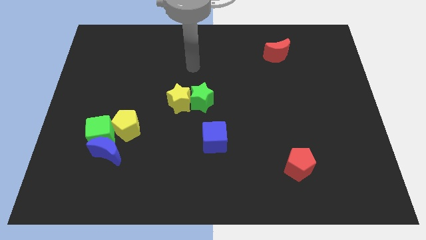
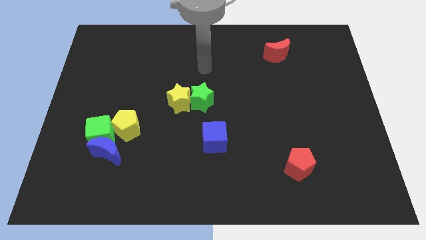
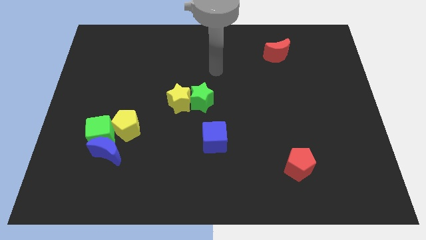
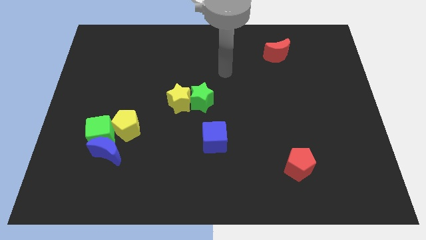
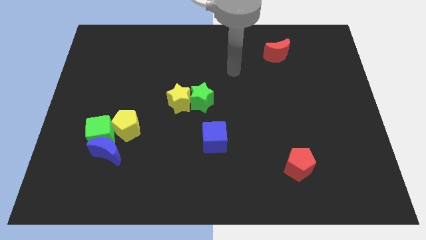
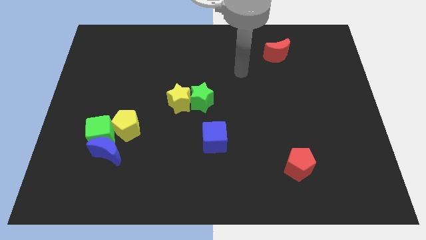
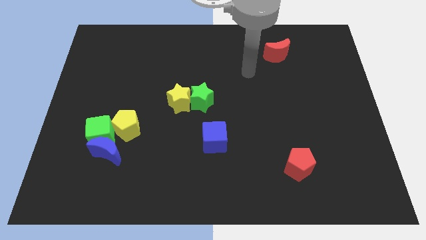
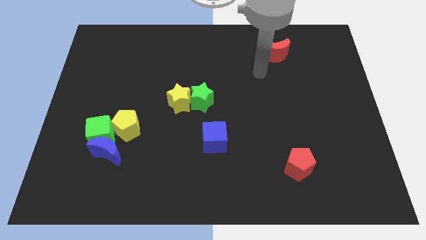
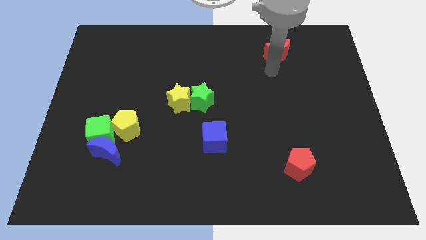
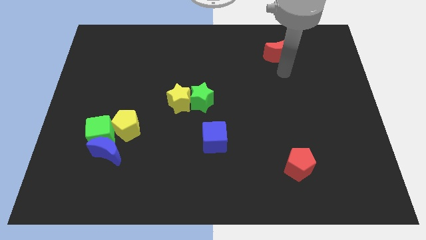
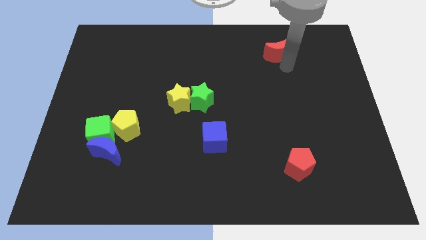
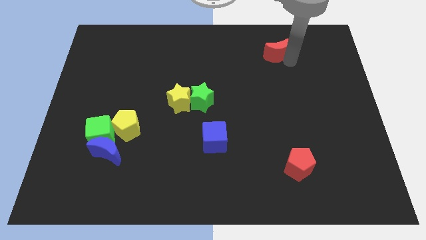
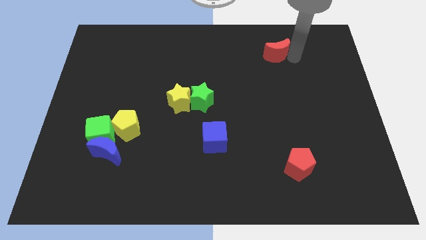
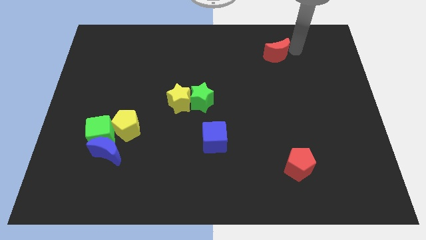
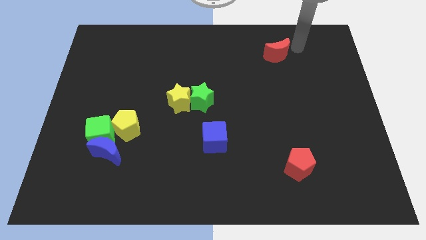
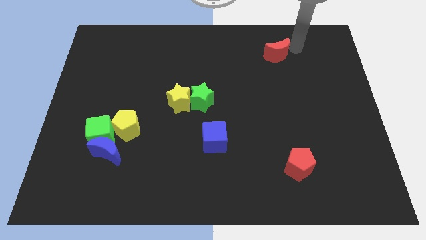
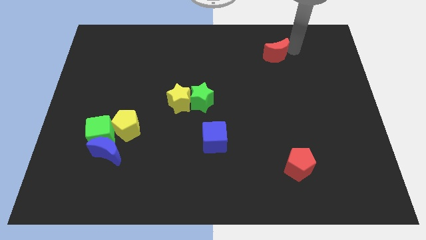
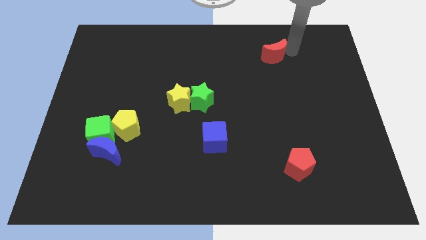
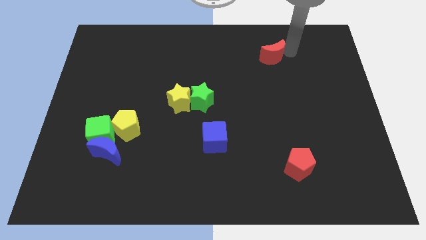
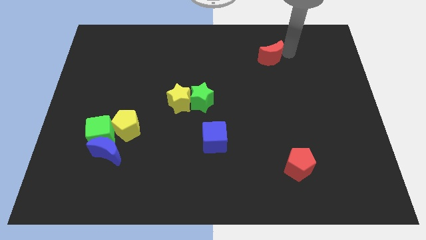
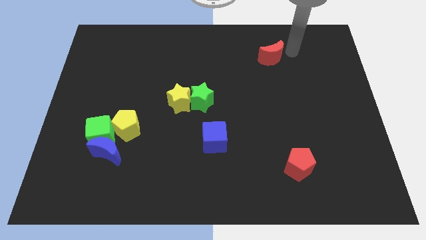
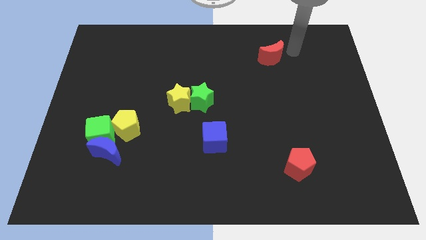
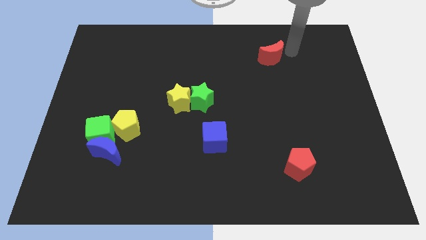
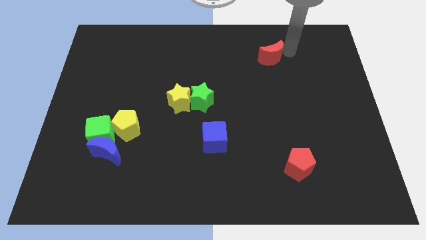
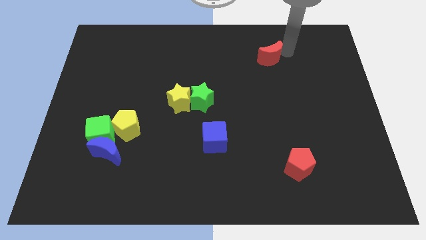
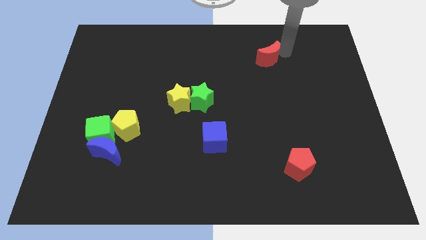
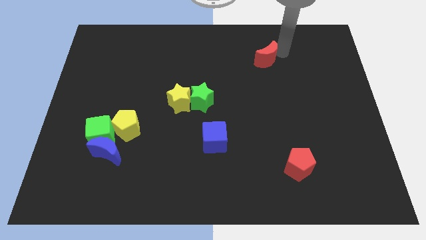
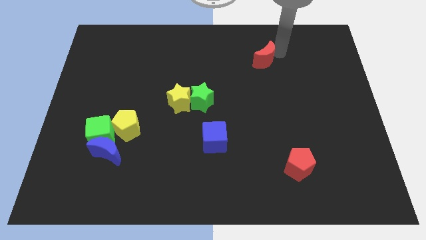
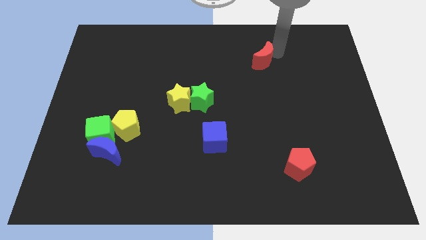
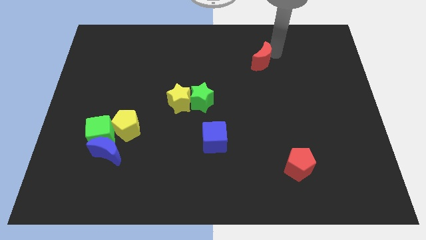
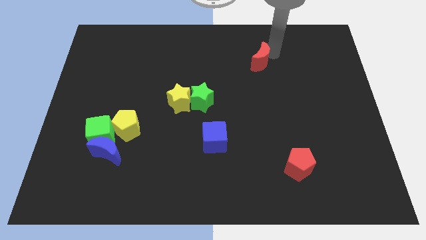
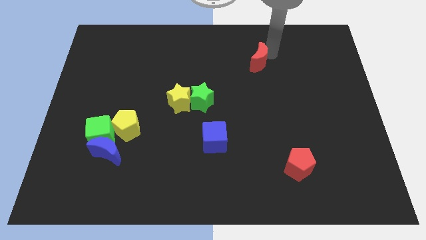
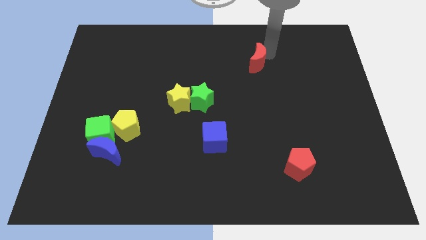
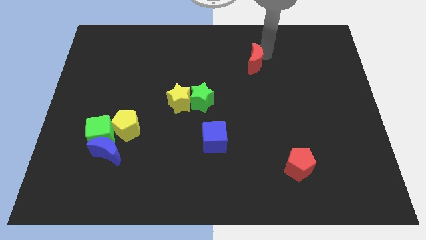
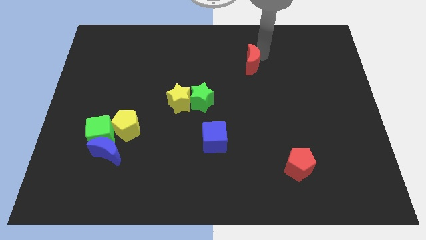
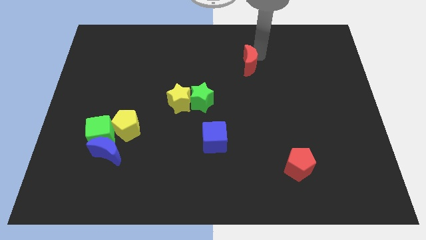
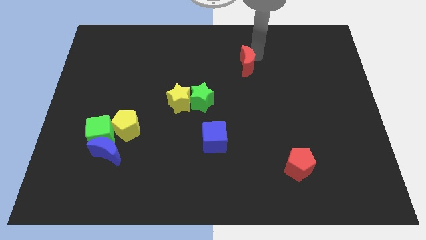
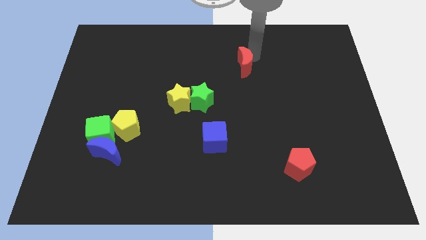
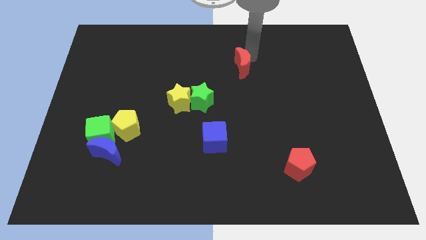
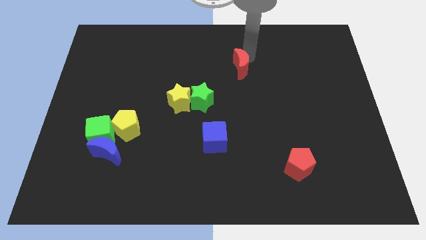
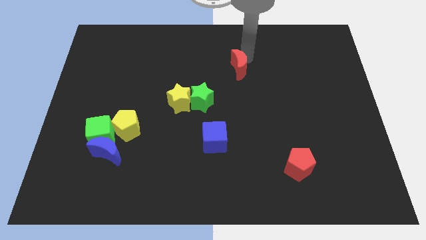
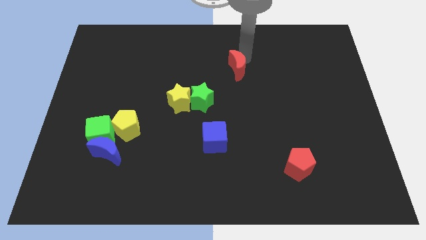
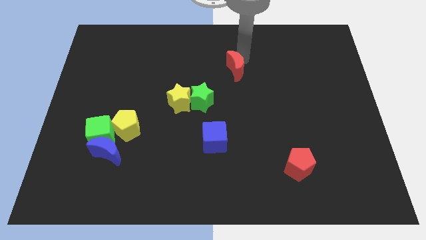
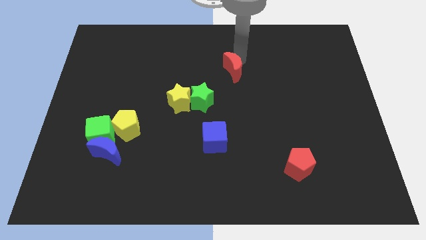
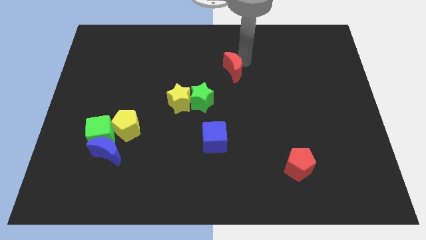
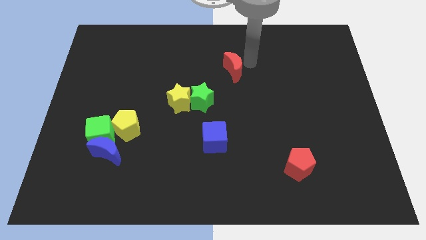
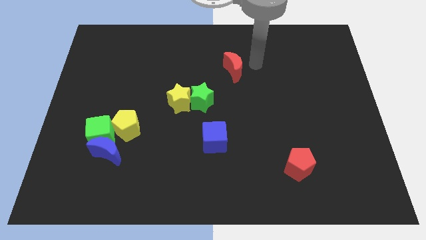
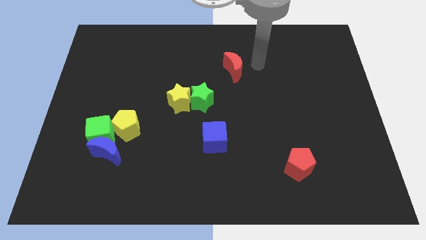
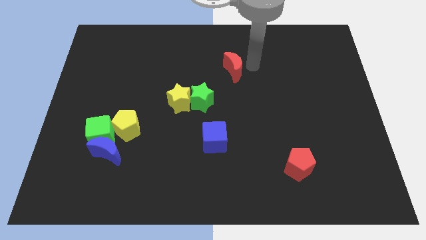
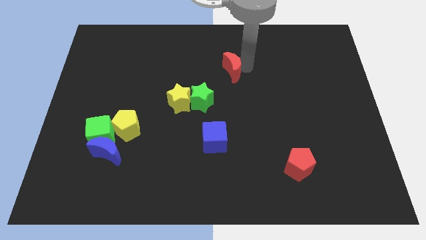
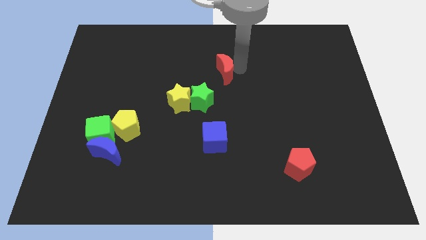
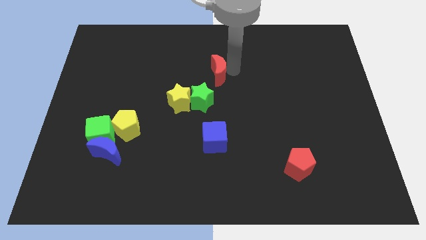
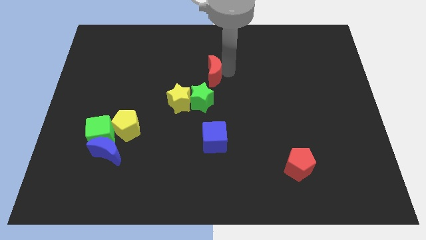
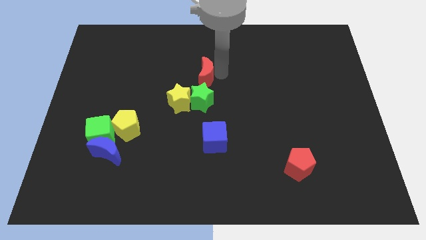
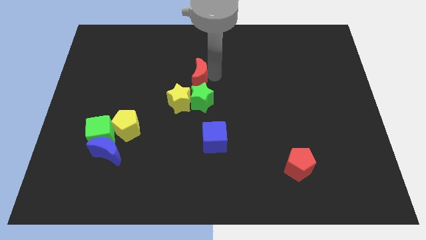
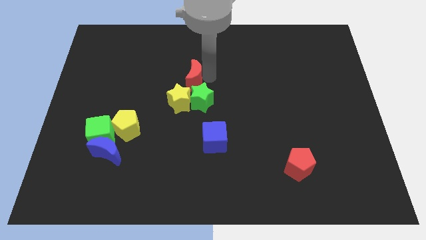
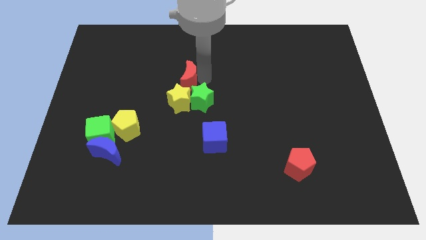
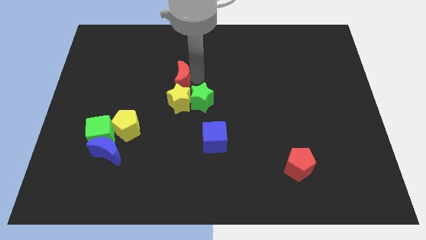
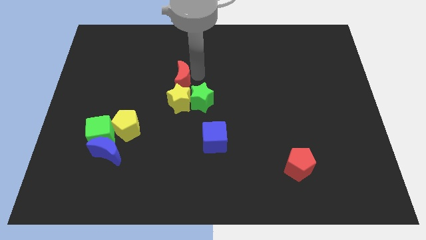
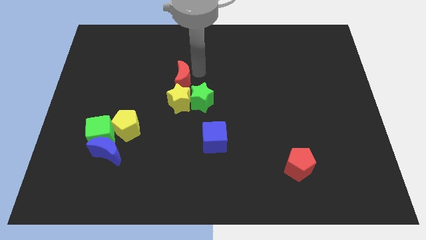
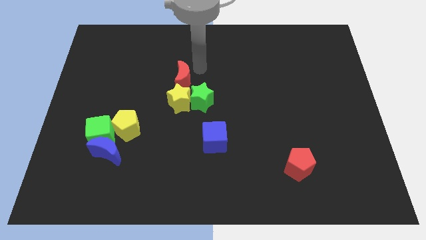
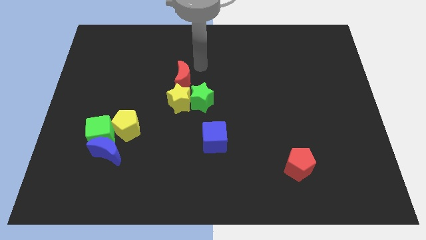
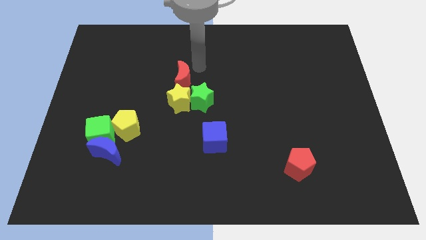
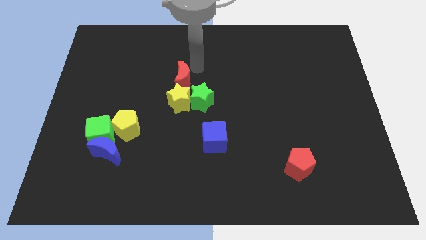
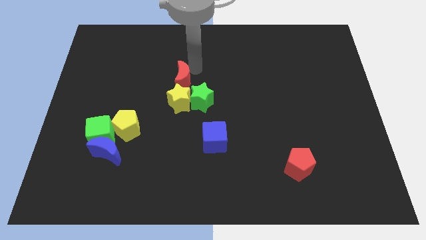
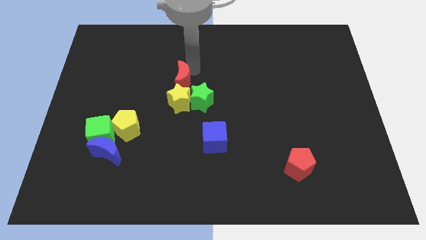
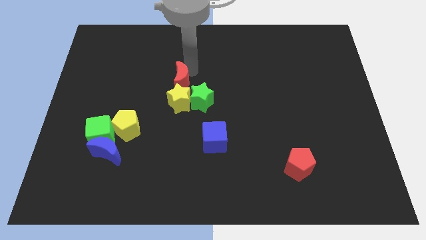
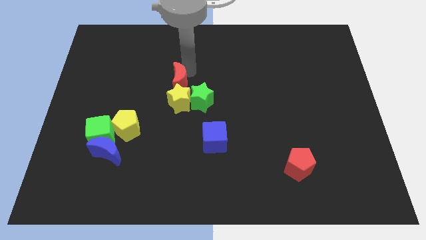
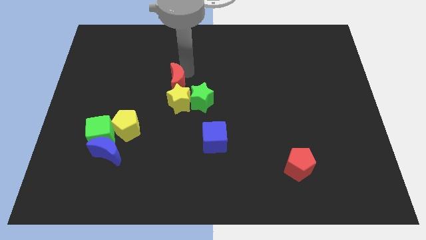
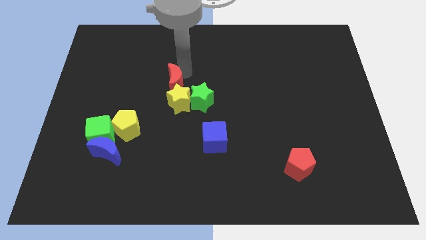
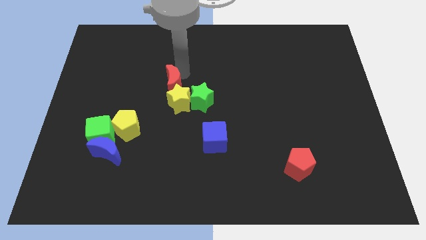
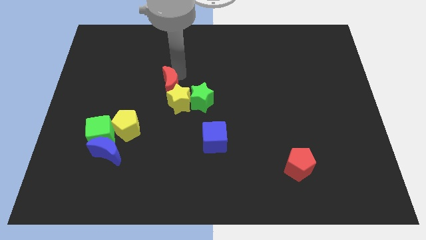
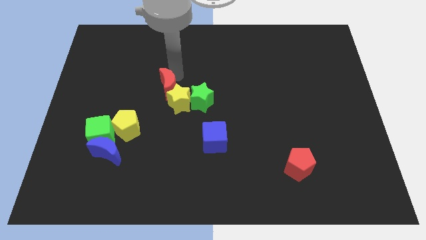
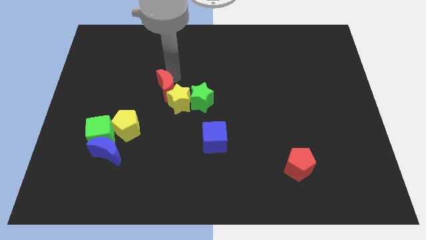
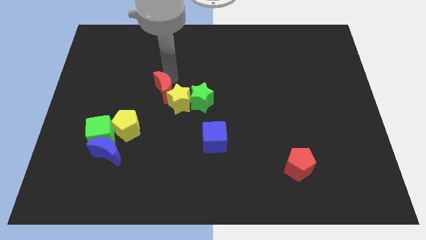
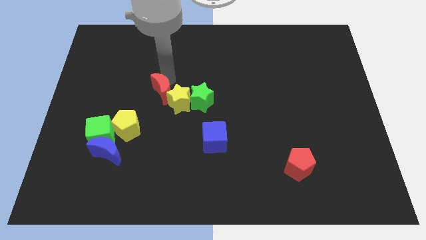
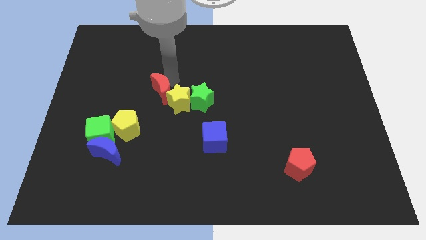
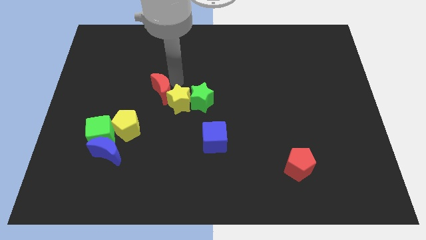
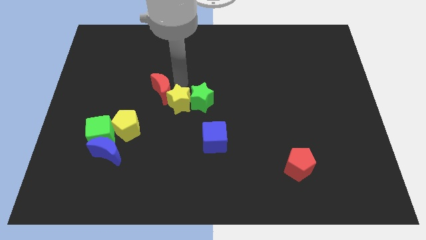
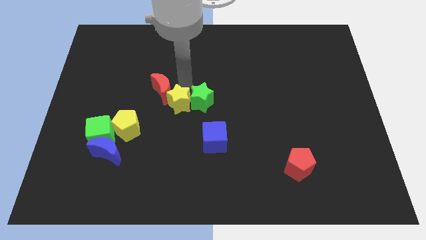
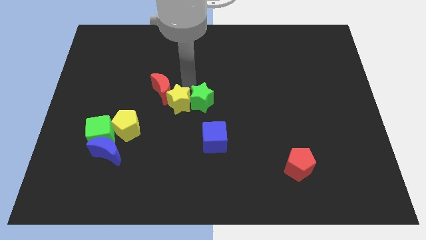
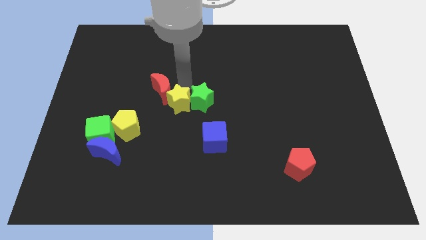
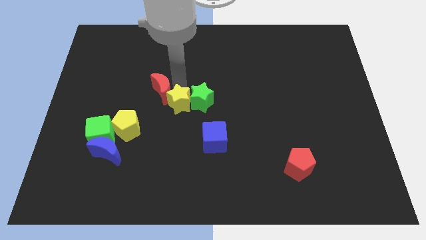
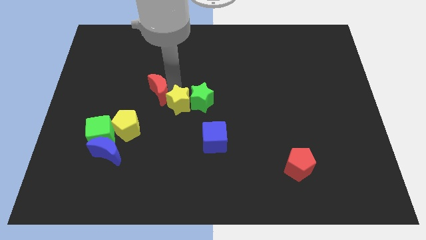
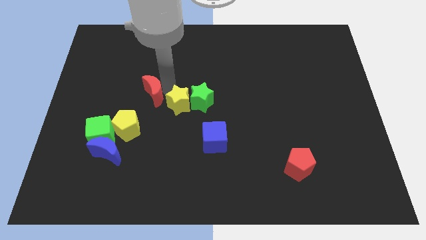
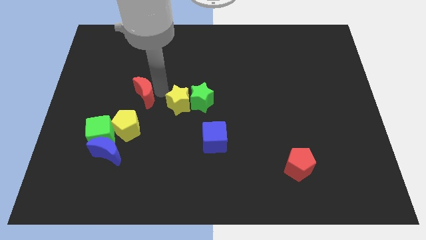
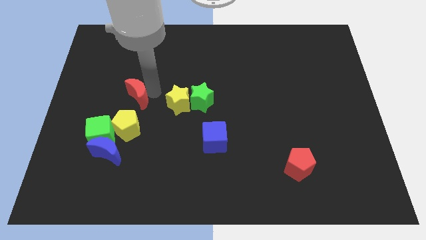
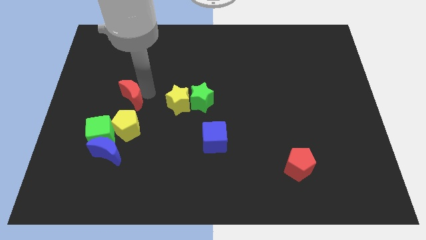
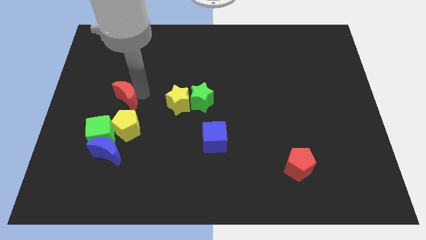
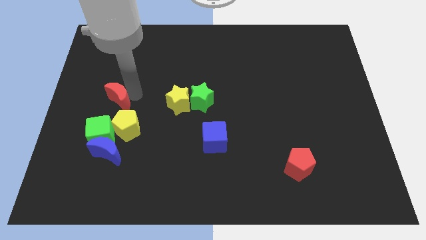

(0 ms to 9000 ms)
move the red moon diagonally up and to the left of the yellow pentagon
